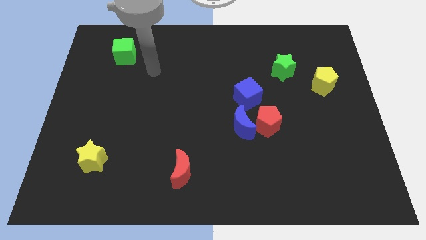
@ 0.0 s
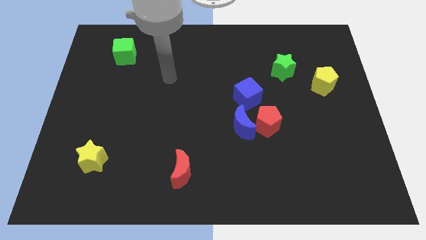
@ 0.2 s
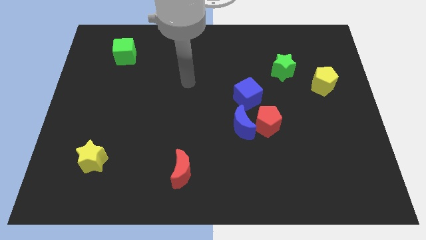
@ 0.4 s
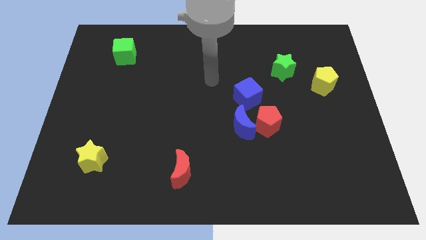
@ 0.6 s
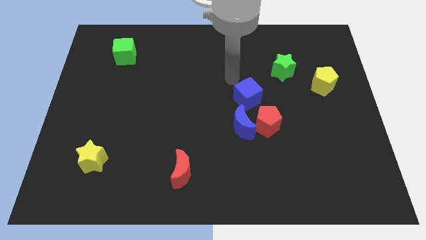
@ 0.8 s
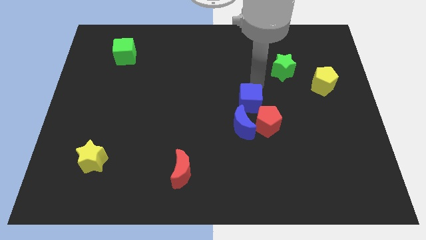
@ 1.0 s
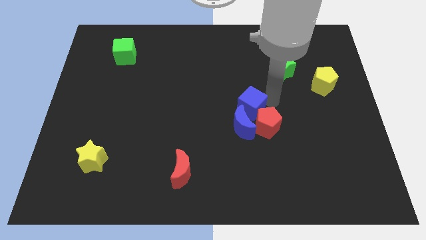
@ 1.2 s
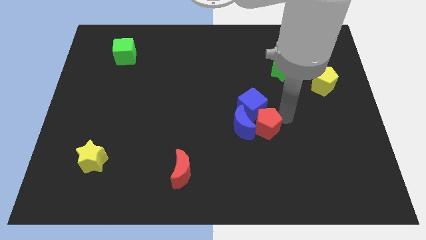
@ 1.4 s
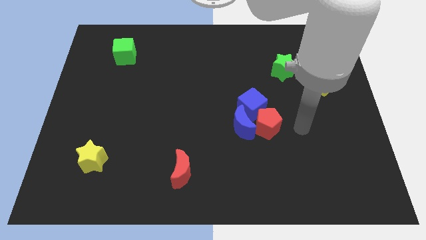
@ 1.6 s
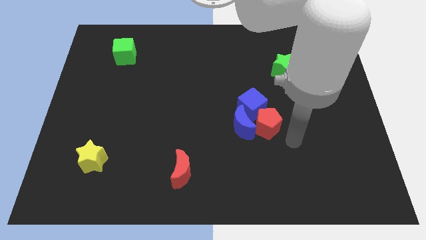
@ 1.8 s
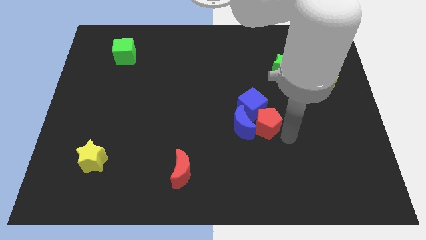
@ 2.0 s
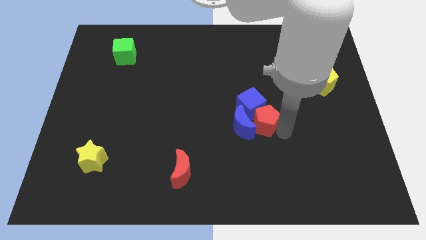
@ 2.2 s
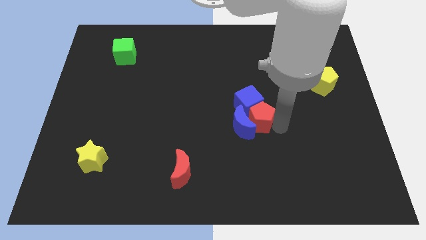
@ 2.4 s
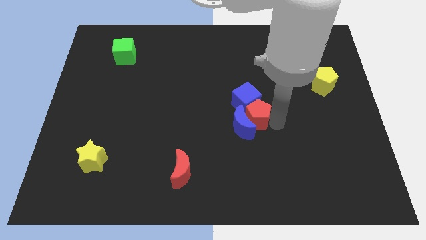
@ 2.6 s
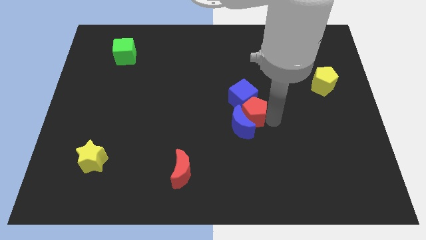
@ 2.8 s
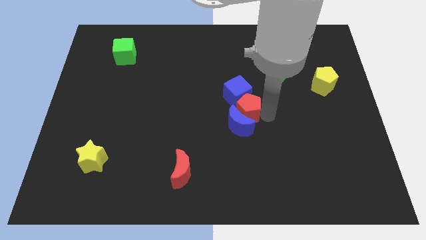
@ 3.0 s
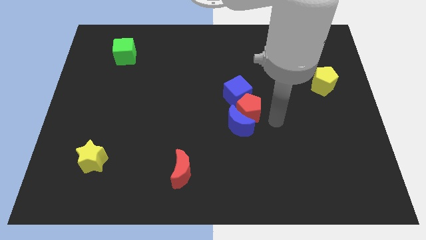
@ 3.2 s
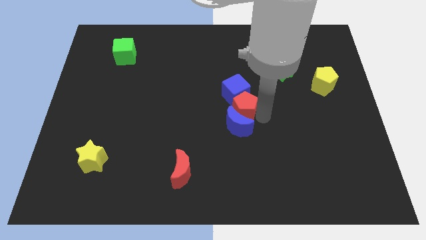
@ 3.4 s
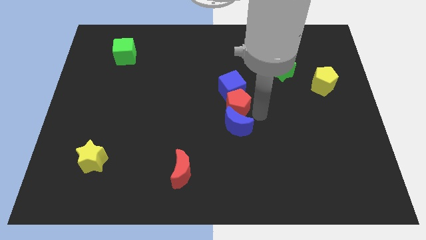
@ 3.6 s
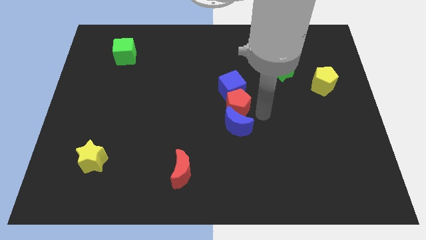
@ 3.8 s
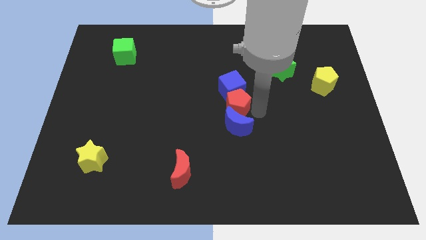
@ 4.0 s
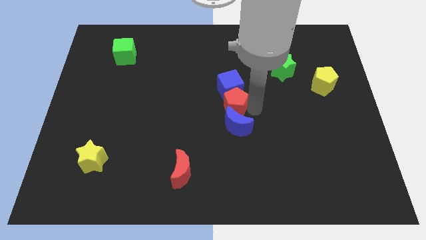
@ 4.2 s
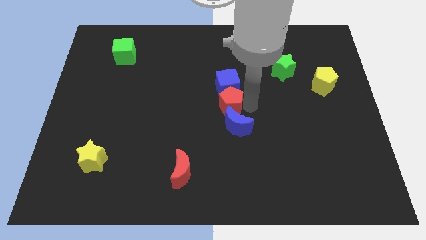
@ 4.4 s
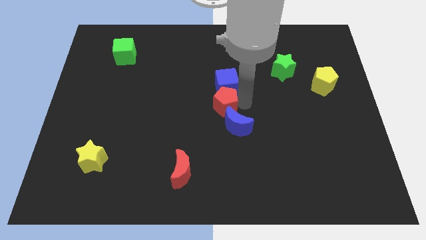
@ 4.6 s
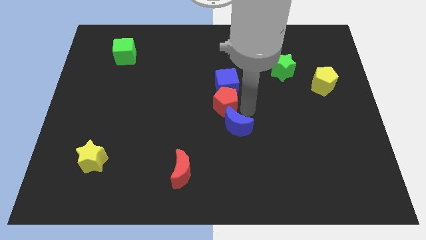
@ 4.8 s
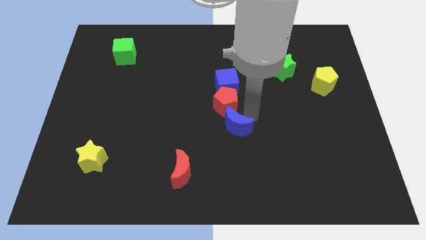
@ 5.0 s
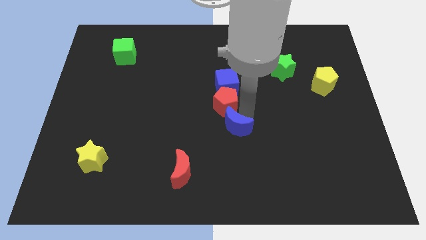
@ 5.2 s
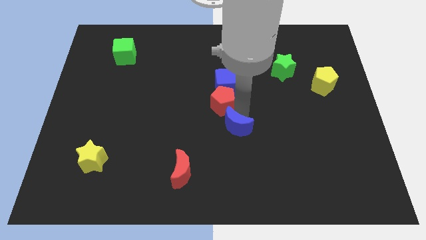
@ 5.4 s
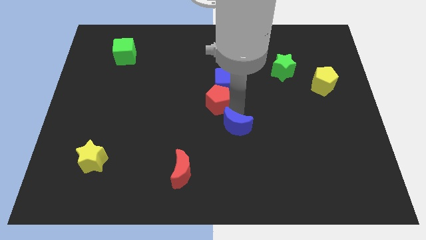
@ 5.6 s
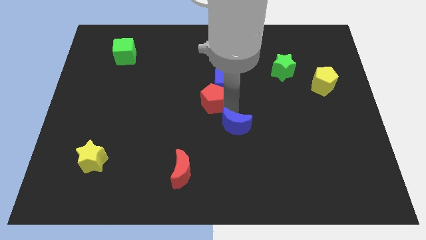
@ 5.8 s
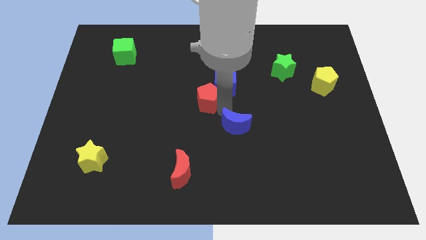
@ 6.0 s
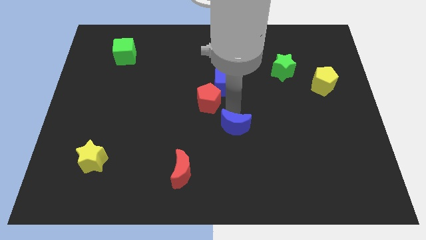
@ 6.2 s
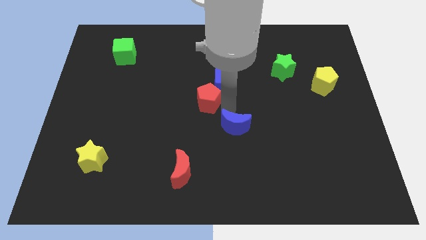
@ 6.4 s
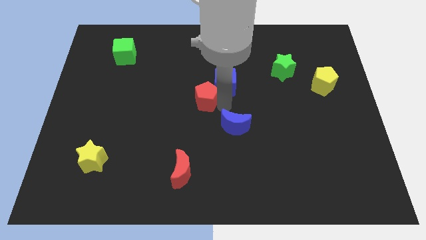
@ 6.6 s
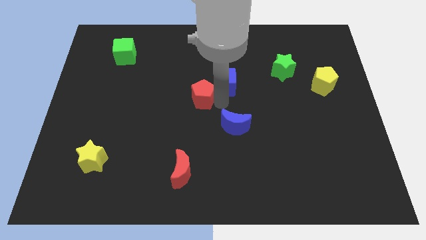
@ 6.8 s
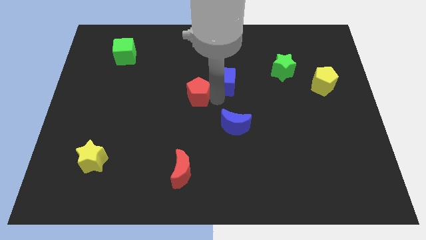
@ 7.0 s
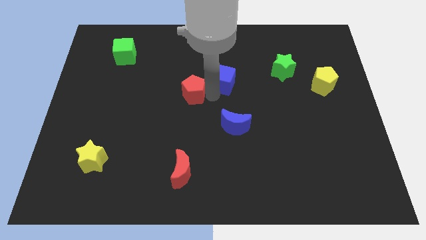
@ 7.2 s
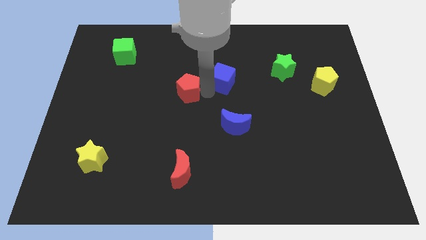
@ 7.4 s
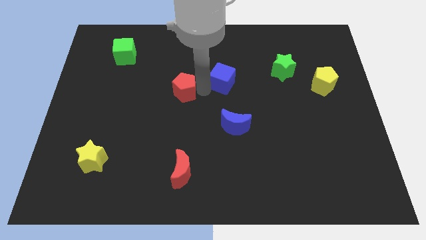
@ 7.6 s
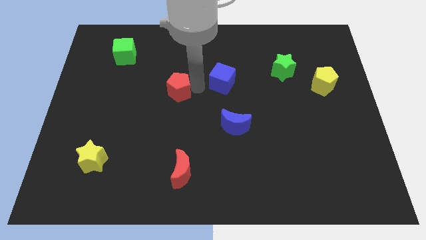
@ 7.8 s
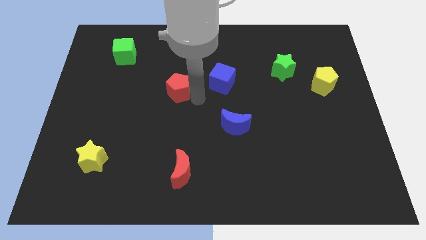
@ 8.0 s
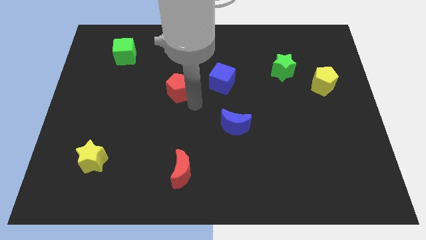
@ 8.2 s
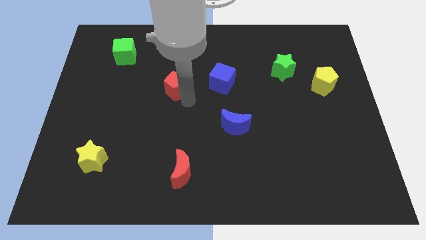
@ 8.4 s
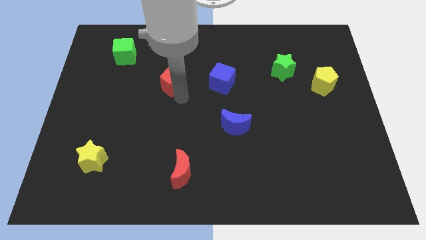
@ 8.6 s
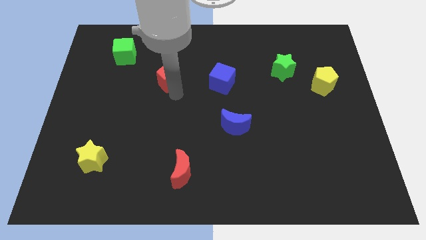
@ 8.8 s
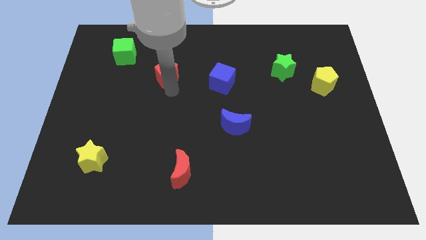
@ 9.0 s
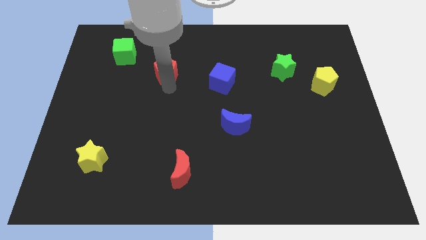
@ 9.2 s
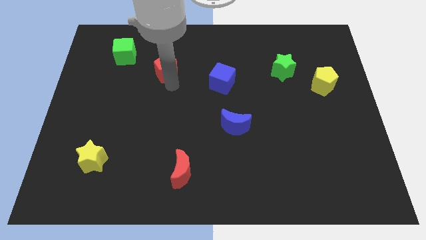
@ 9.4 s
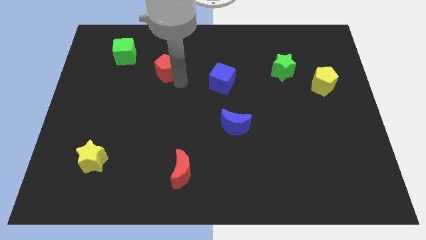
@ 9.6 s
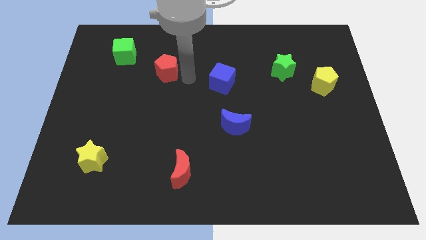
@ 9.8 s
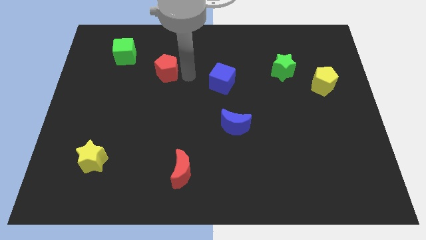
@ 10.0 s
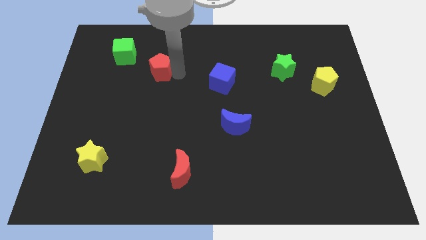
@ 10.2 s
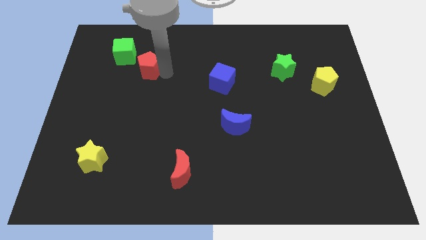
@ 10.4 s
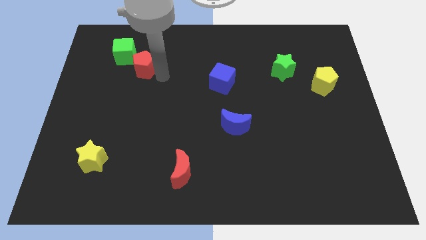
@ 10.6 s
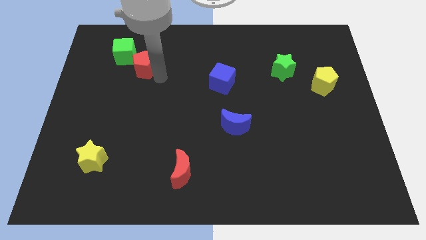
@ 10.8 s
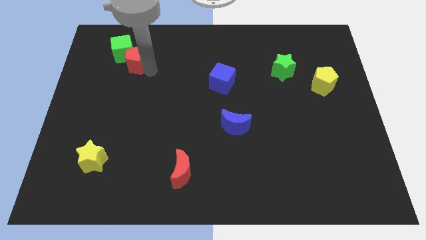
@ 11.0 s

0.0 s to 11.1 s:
slide the red pentagon towards the green cube

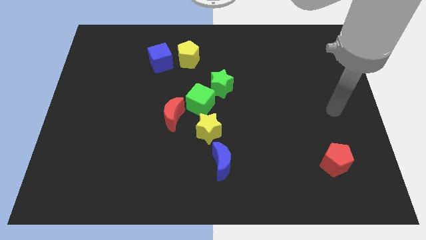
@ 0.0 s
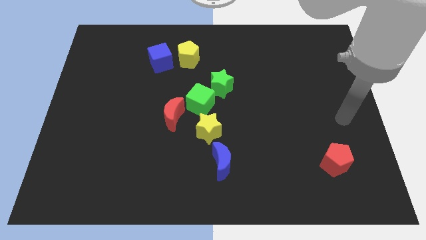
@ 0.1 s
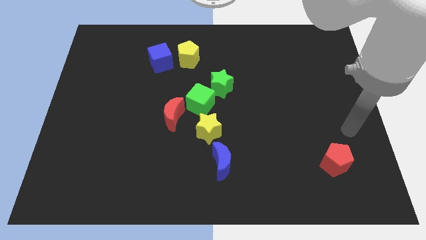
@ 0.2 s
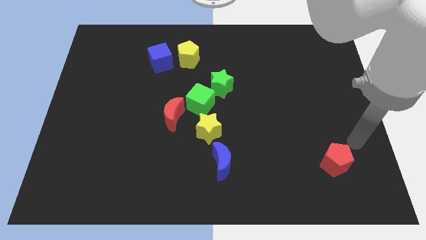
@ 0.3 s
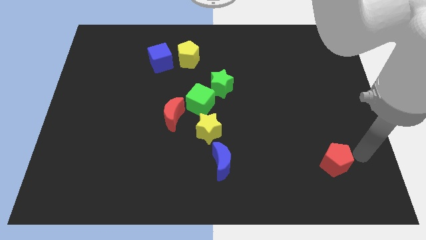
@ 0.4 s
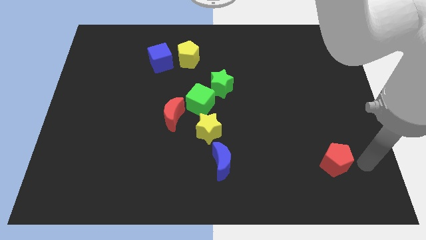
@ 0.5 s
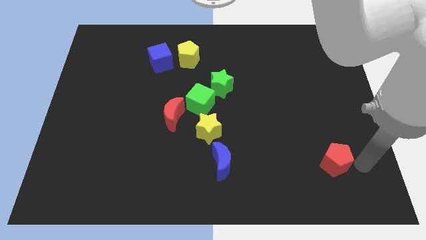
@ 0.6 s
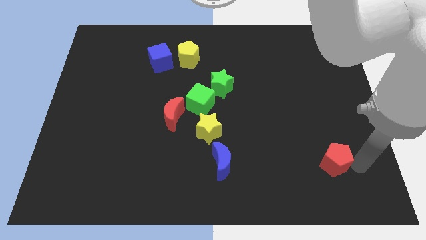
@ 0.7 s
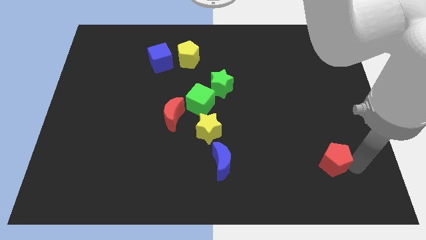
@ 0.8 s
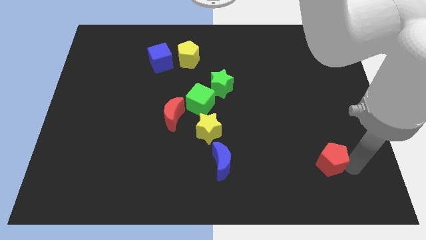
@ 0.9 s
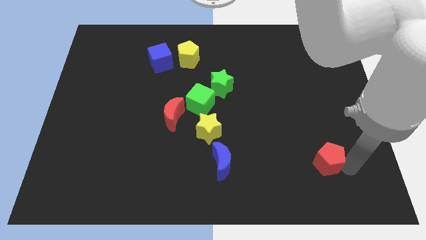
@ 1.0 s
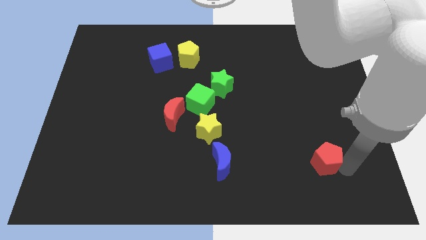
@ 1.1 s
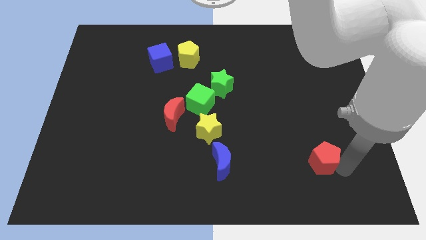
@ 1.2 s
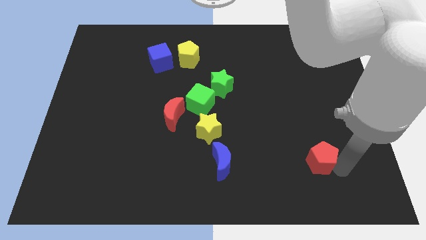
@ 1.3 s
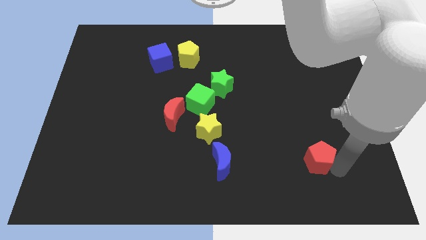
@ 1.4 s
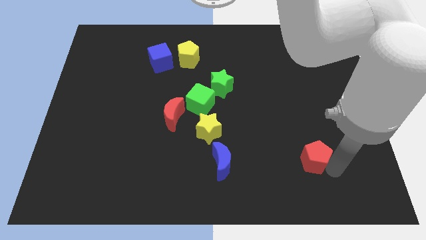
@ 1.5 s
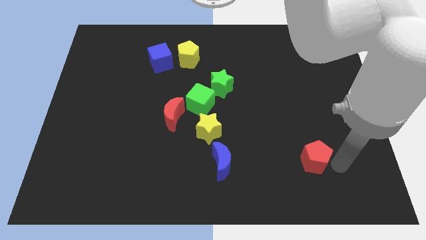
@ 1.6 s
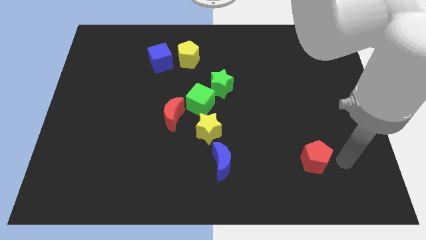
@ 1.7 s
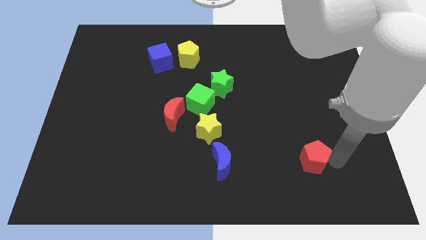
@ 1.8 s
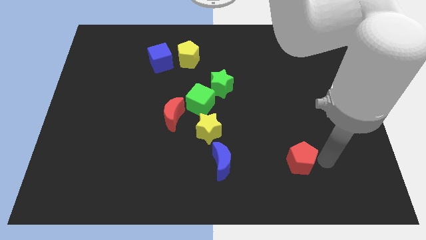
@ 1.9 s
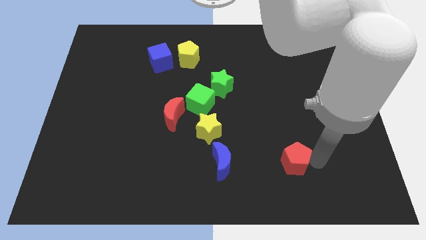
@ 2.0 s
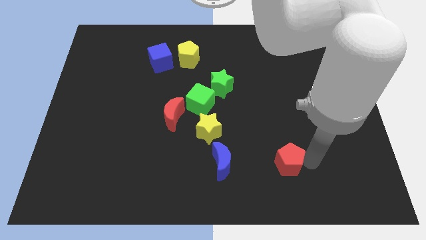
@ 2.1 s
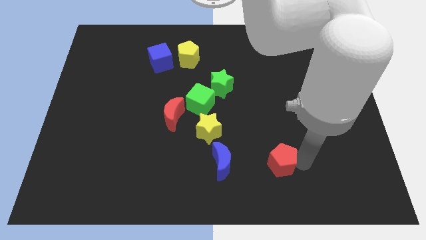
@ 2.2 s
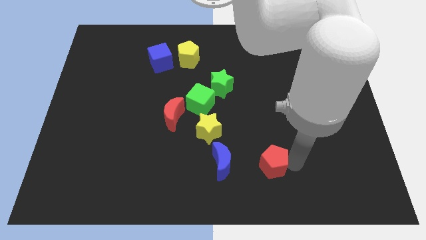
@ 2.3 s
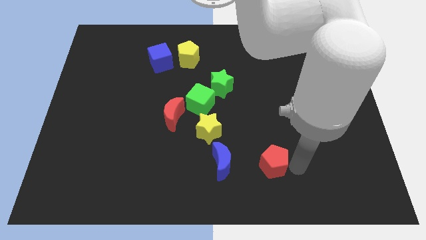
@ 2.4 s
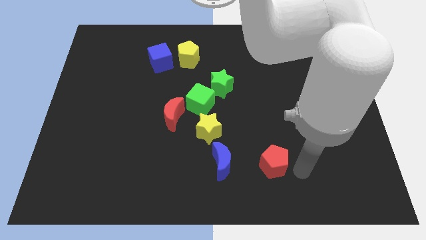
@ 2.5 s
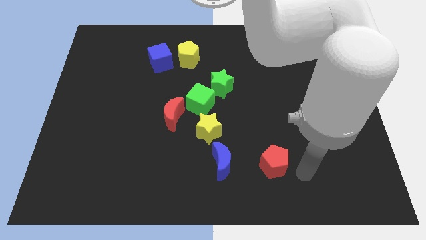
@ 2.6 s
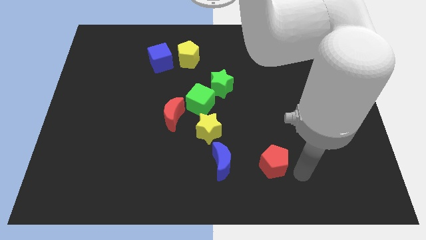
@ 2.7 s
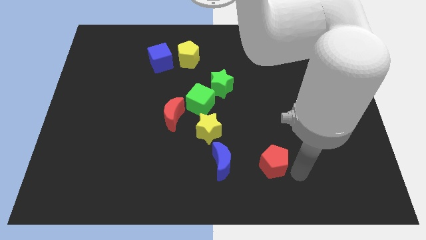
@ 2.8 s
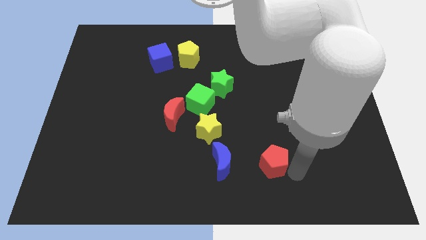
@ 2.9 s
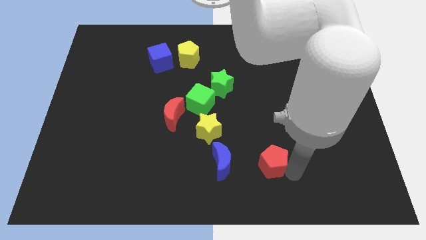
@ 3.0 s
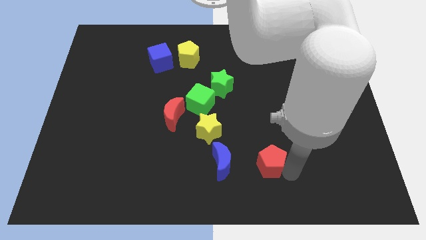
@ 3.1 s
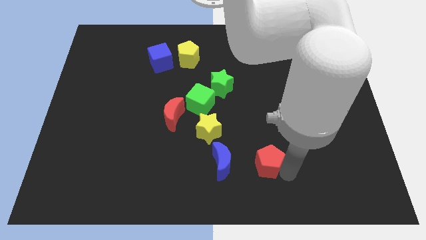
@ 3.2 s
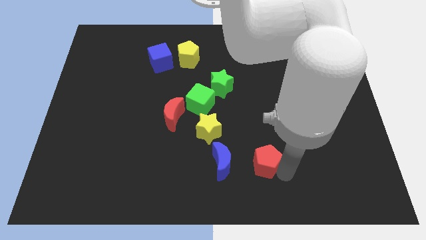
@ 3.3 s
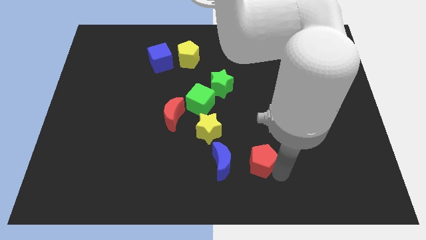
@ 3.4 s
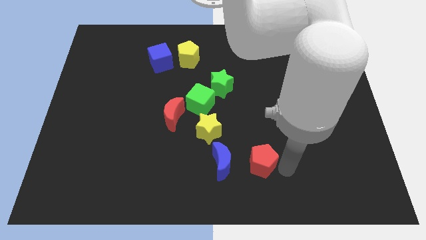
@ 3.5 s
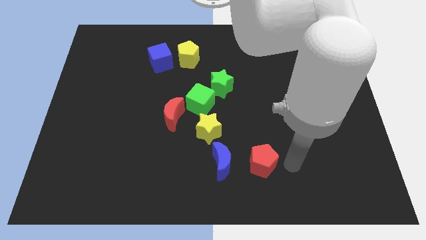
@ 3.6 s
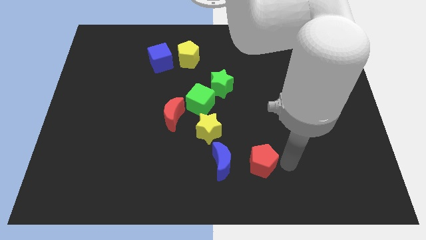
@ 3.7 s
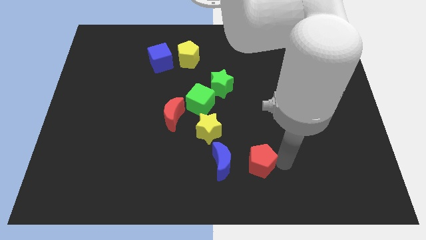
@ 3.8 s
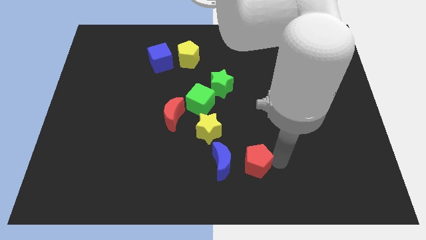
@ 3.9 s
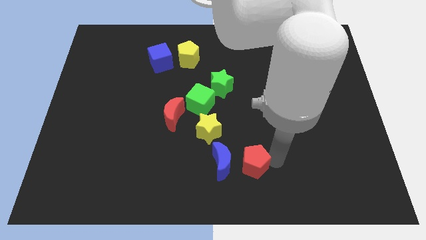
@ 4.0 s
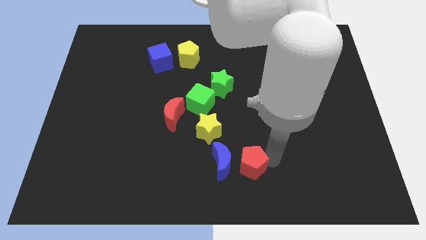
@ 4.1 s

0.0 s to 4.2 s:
put the red pentagon close to the blue moon
